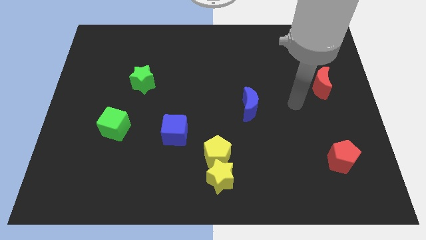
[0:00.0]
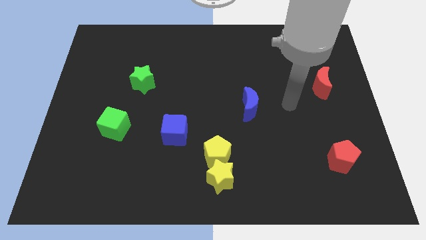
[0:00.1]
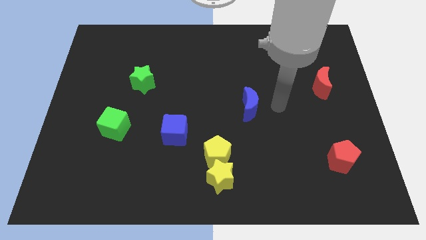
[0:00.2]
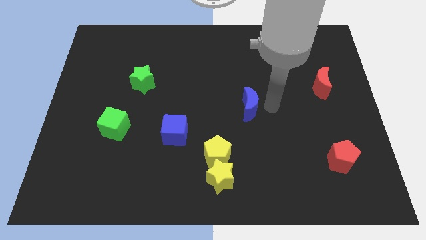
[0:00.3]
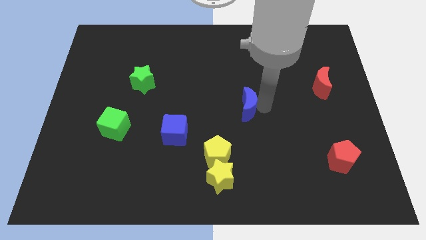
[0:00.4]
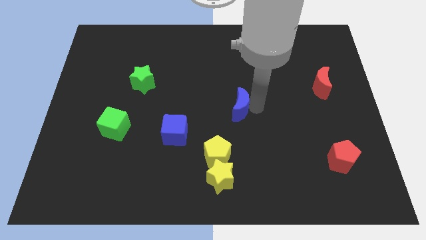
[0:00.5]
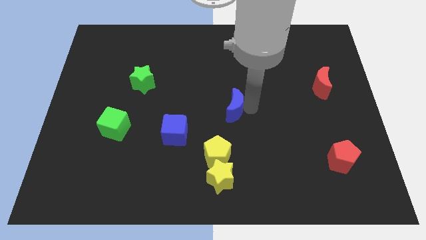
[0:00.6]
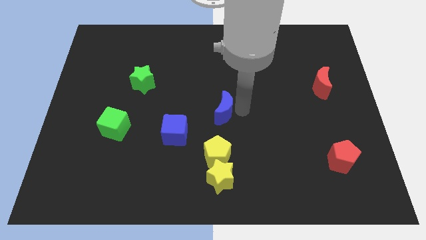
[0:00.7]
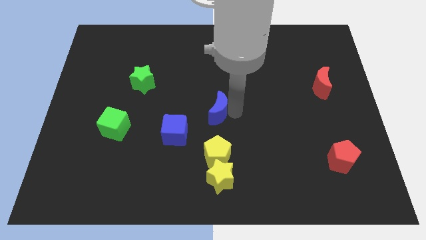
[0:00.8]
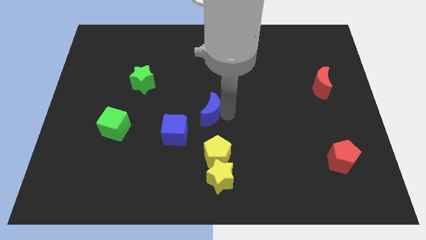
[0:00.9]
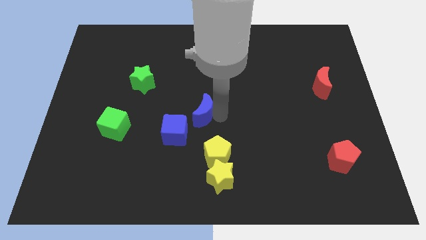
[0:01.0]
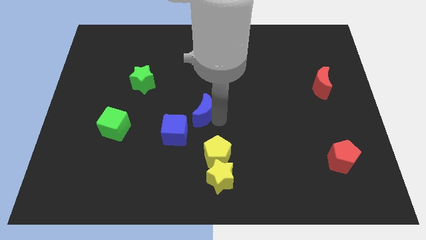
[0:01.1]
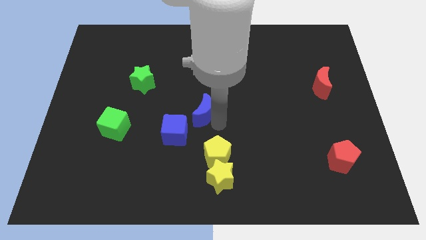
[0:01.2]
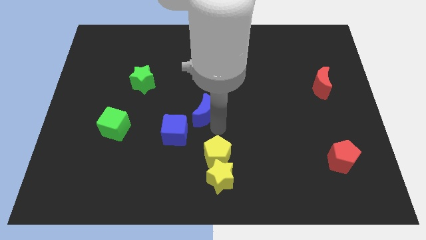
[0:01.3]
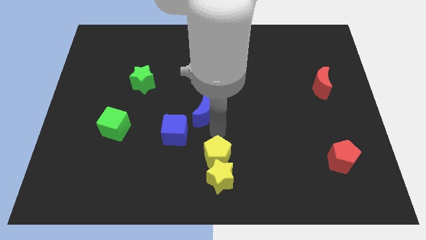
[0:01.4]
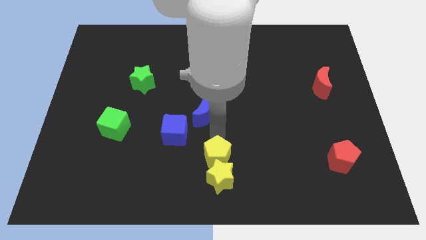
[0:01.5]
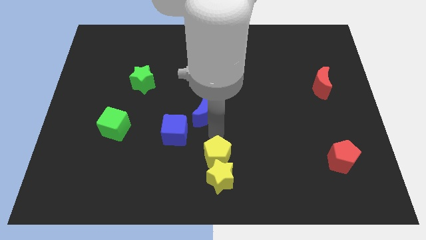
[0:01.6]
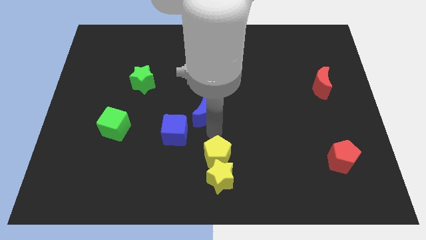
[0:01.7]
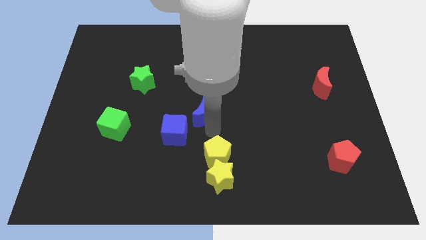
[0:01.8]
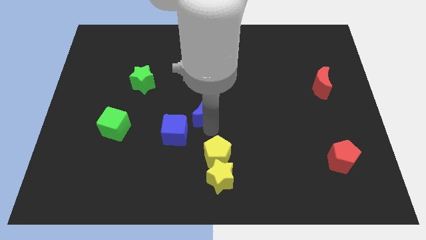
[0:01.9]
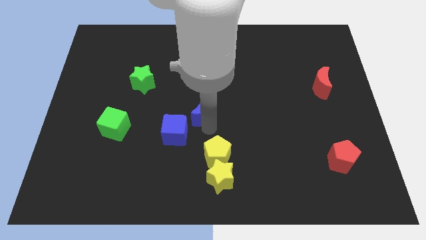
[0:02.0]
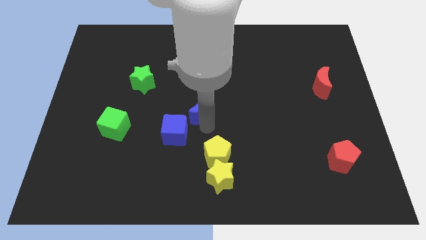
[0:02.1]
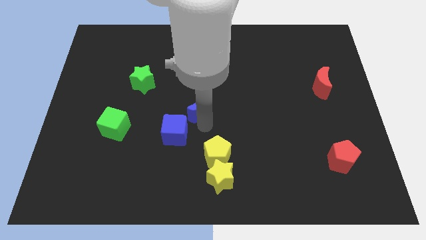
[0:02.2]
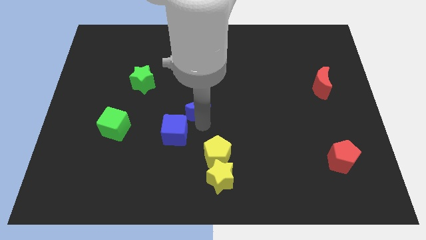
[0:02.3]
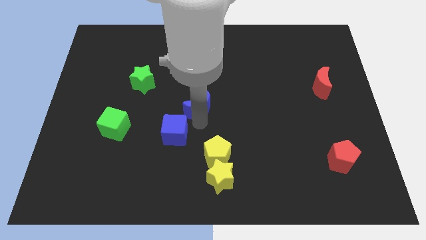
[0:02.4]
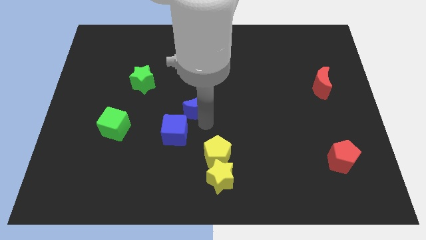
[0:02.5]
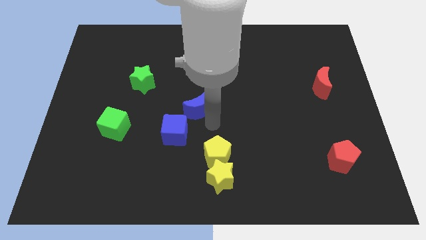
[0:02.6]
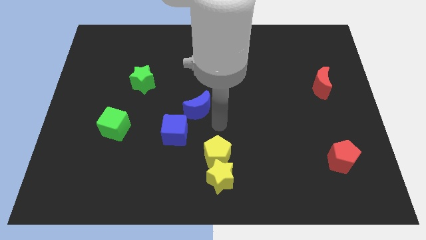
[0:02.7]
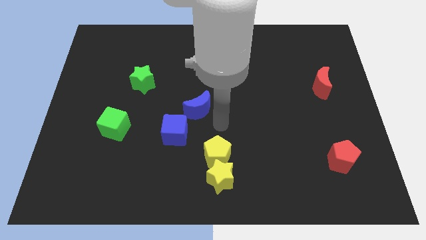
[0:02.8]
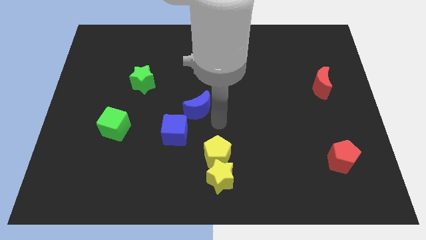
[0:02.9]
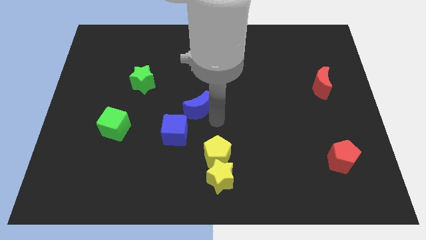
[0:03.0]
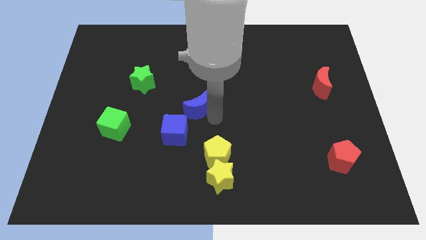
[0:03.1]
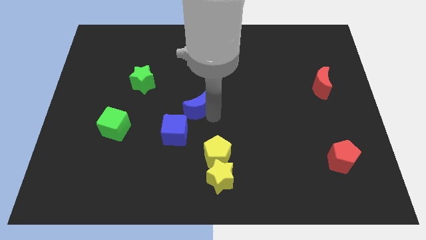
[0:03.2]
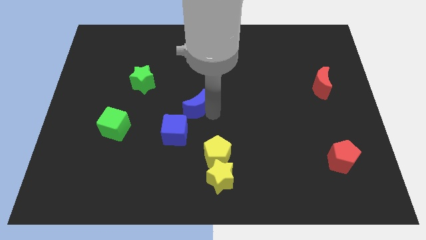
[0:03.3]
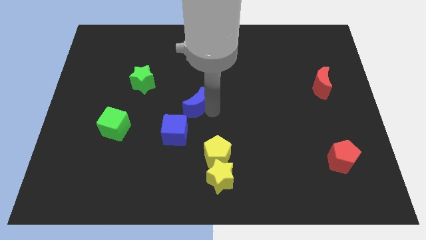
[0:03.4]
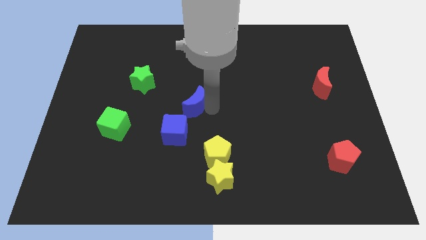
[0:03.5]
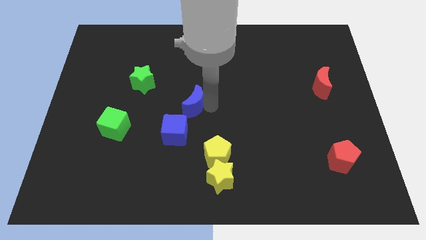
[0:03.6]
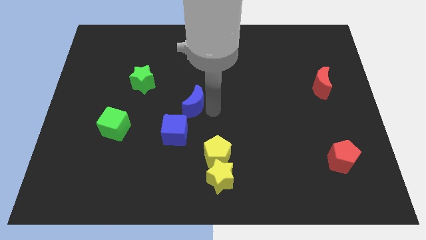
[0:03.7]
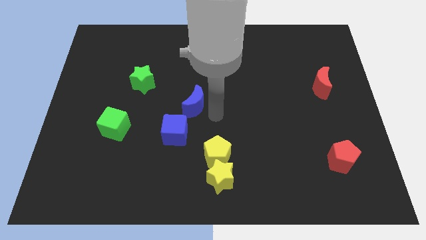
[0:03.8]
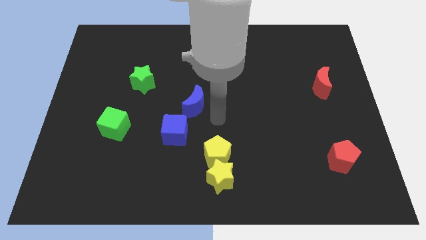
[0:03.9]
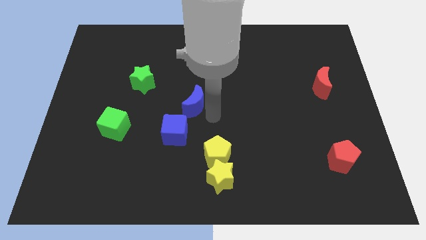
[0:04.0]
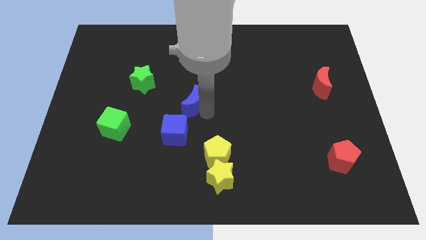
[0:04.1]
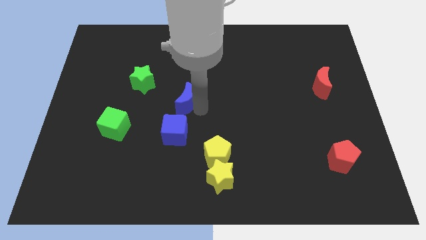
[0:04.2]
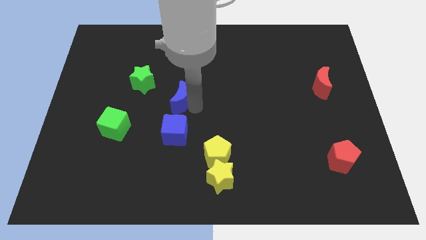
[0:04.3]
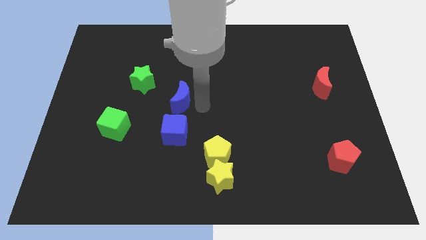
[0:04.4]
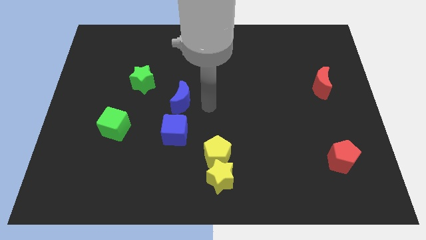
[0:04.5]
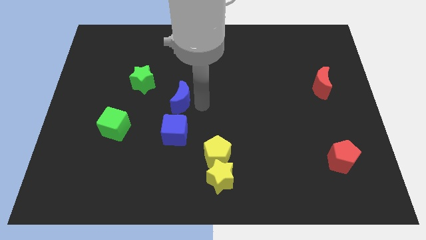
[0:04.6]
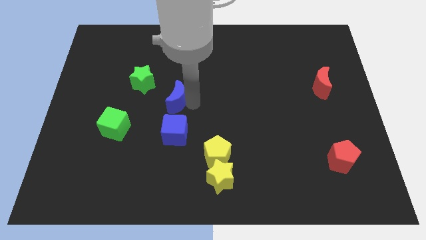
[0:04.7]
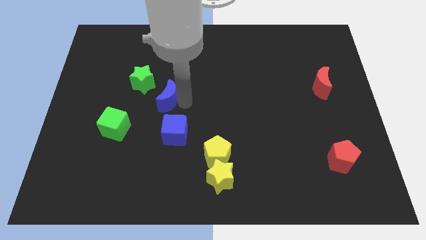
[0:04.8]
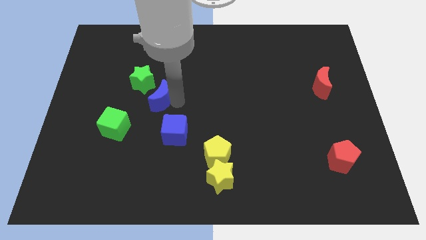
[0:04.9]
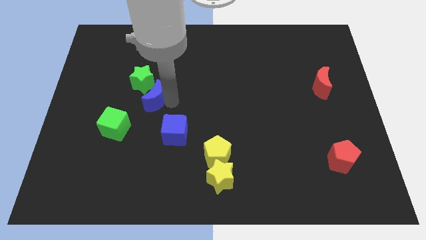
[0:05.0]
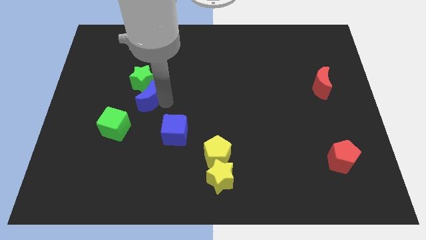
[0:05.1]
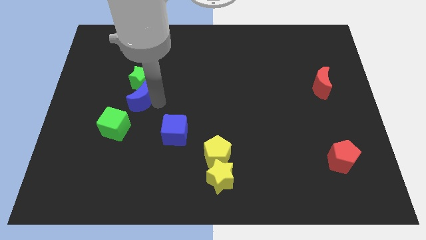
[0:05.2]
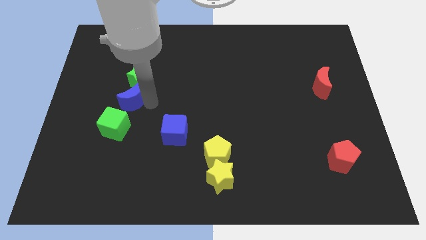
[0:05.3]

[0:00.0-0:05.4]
put the blue moon to the top side of the green cube

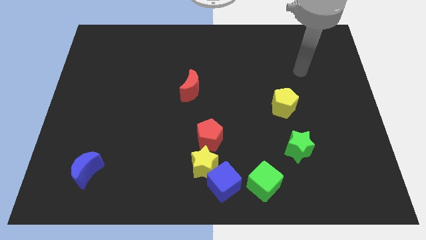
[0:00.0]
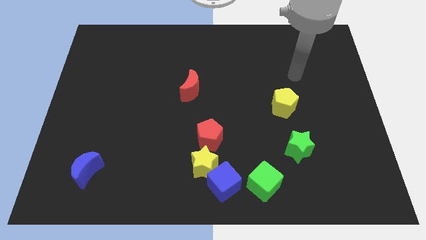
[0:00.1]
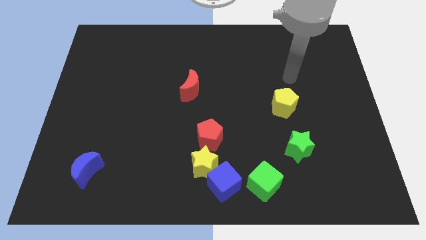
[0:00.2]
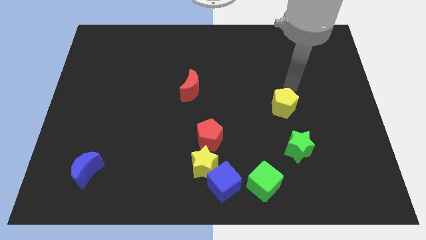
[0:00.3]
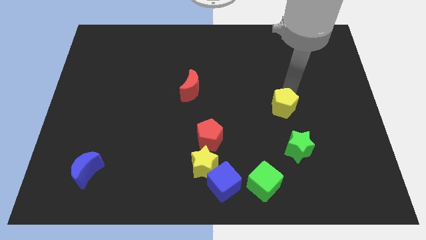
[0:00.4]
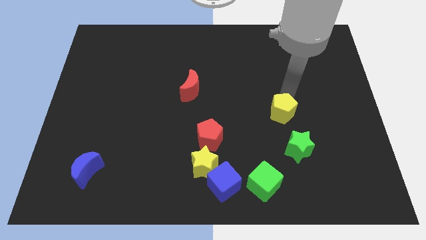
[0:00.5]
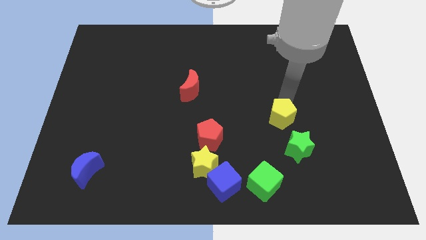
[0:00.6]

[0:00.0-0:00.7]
push the yellow pentagon to the top left of the green star
